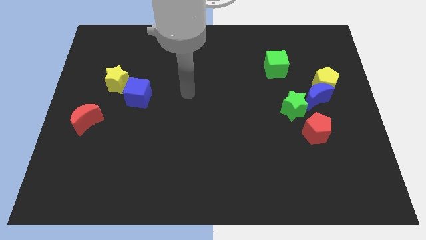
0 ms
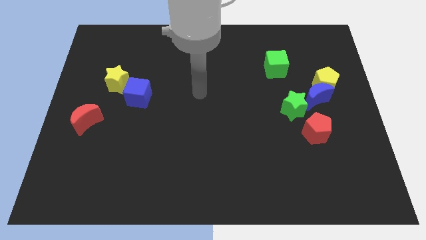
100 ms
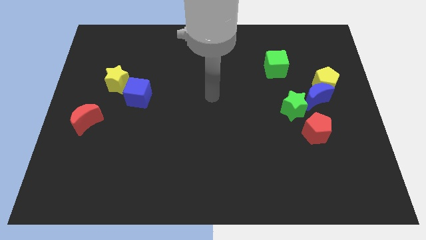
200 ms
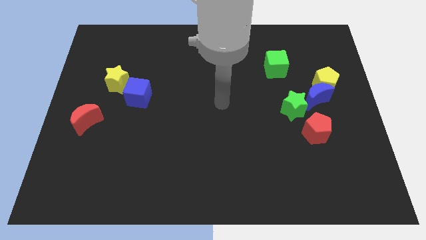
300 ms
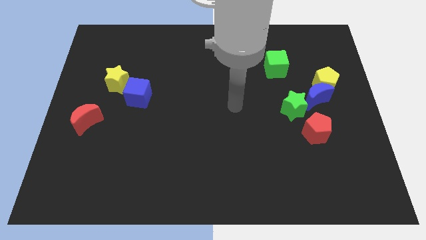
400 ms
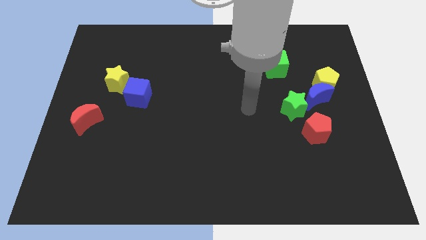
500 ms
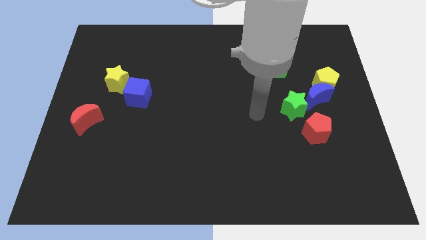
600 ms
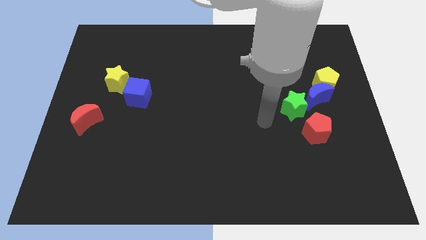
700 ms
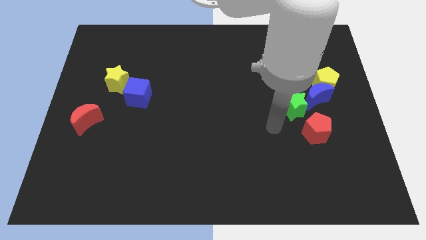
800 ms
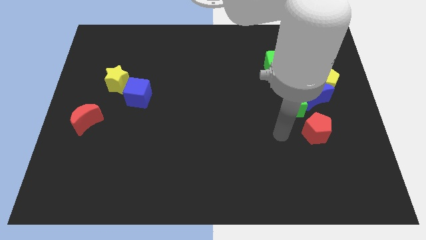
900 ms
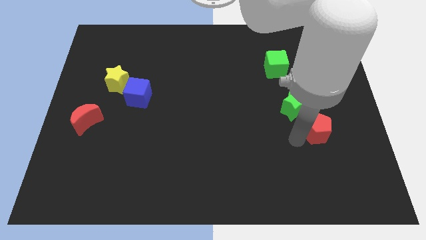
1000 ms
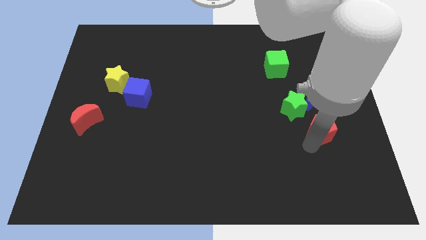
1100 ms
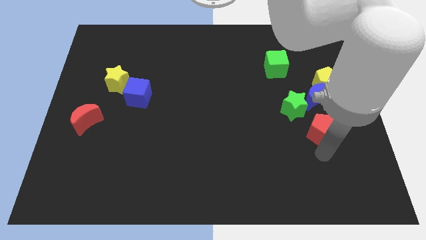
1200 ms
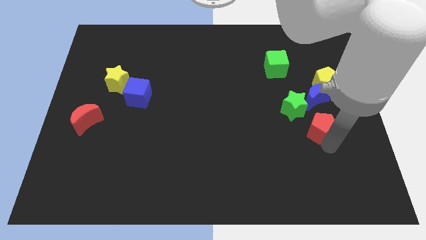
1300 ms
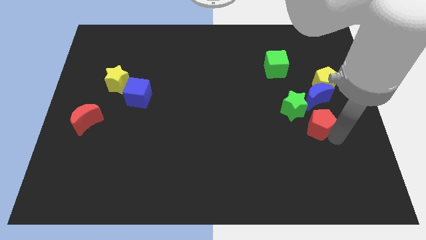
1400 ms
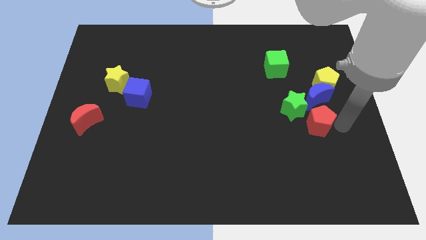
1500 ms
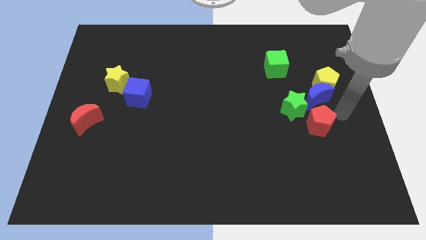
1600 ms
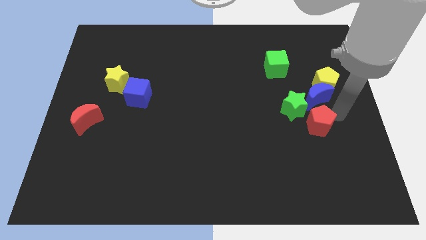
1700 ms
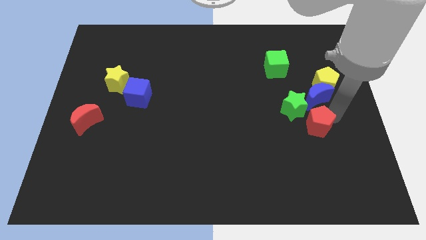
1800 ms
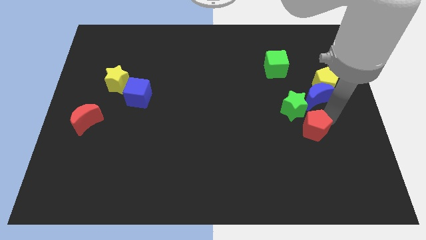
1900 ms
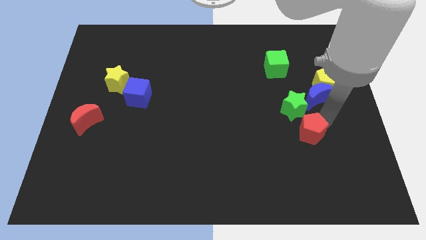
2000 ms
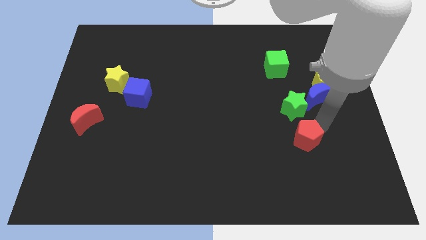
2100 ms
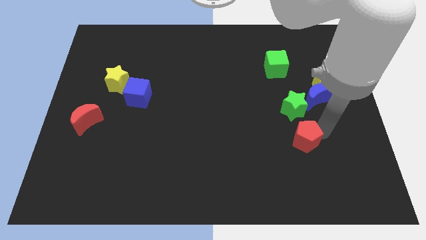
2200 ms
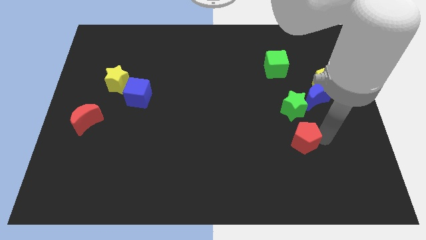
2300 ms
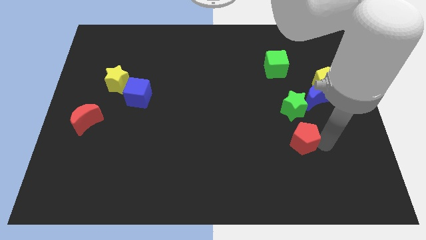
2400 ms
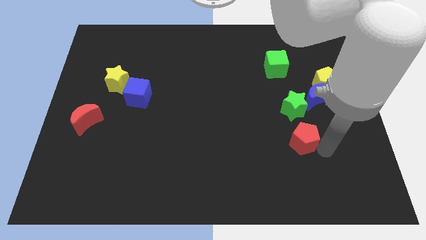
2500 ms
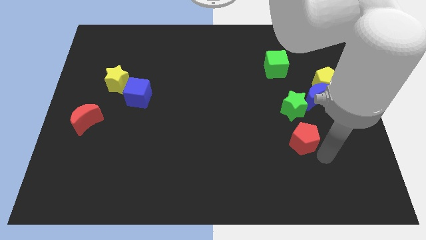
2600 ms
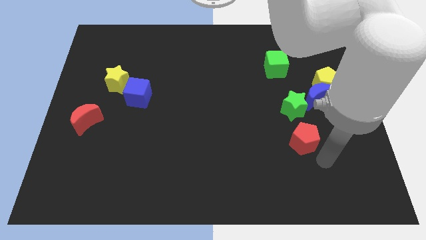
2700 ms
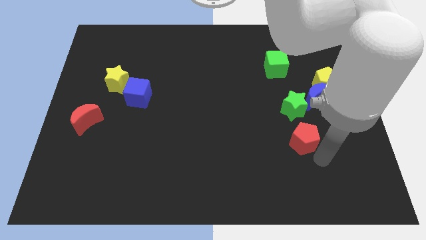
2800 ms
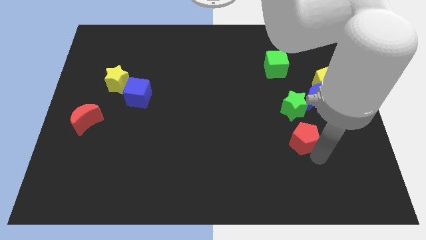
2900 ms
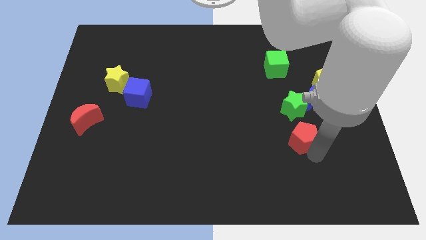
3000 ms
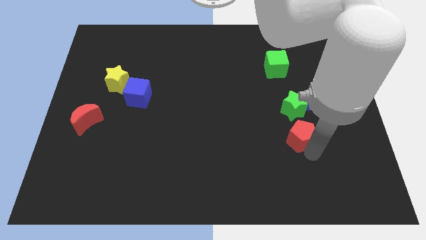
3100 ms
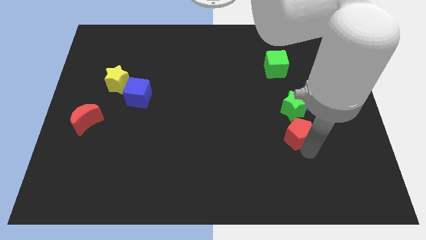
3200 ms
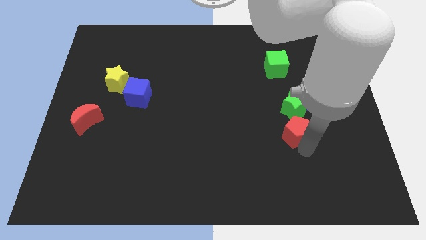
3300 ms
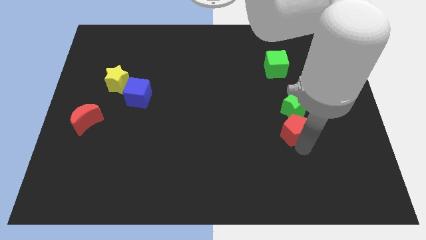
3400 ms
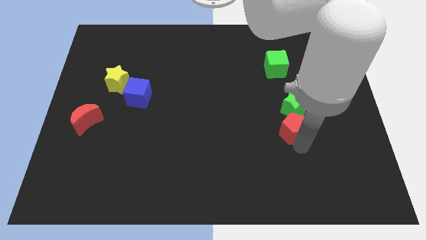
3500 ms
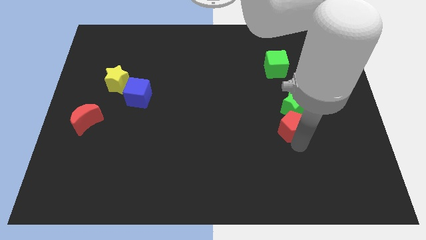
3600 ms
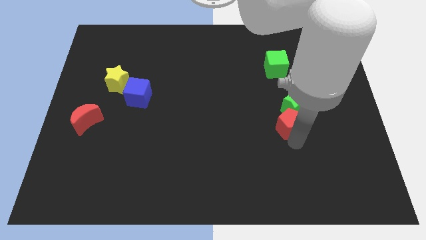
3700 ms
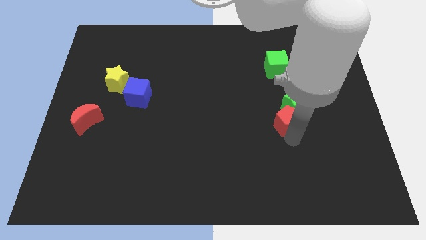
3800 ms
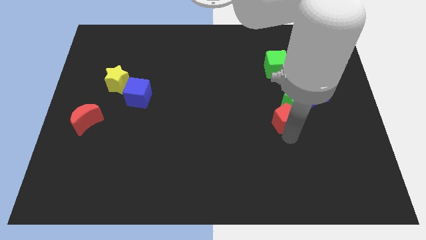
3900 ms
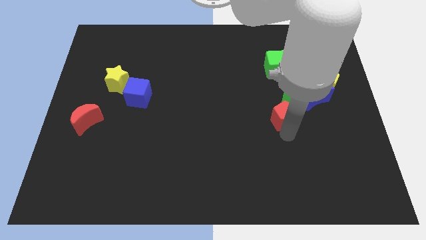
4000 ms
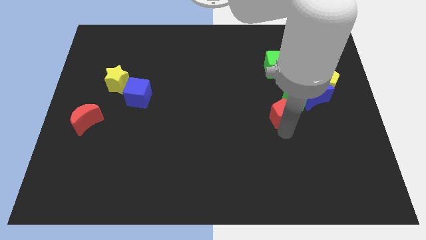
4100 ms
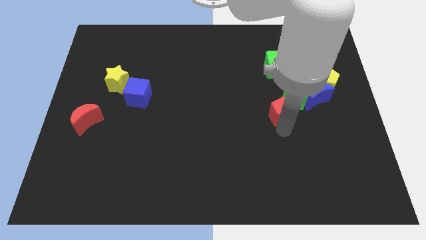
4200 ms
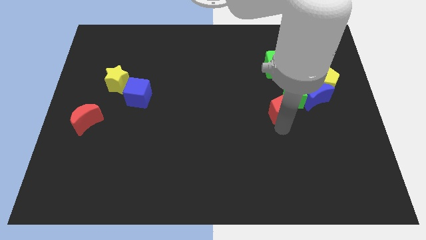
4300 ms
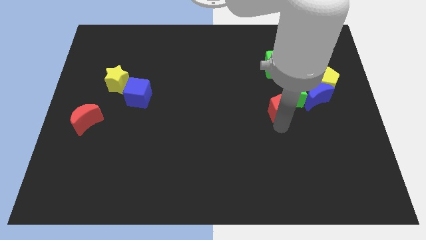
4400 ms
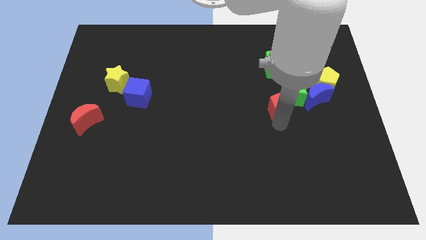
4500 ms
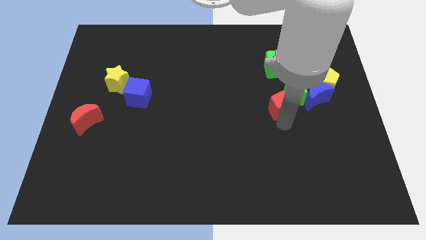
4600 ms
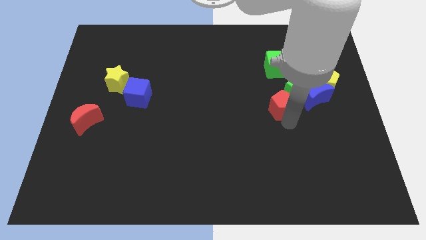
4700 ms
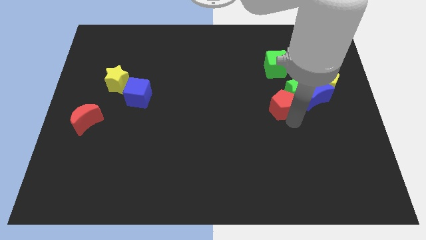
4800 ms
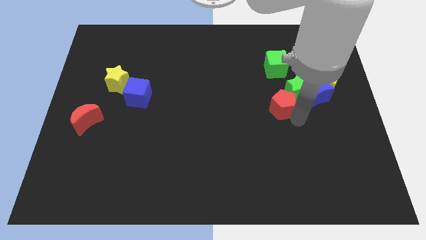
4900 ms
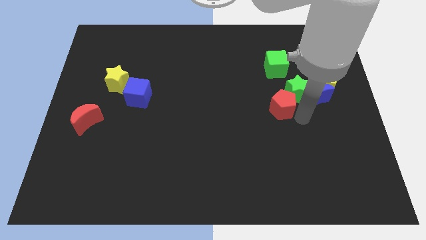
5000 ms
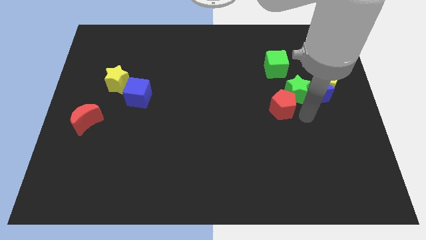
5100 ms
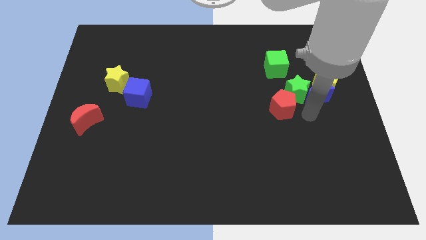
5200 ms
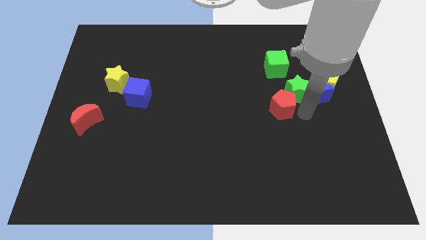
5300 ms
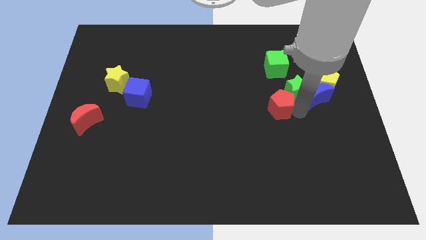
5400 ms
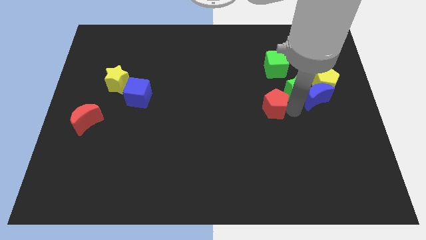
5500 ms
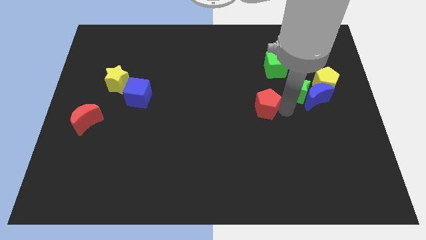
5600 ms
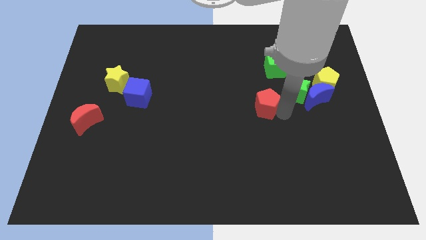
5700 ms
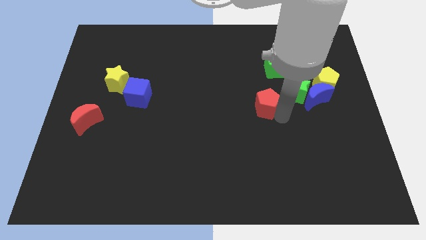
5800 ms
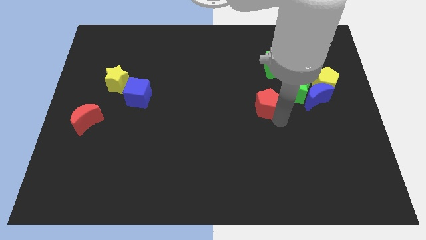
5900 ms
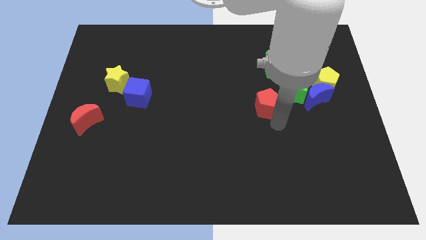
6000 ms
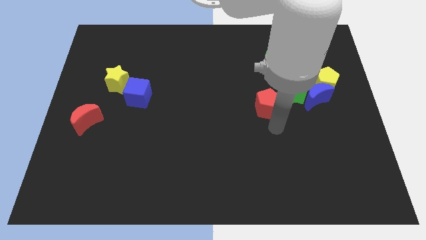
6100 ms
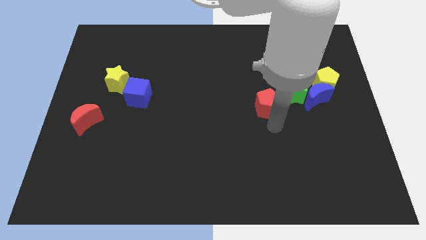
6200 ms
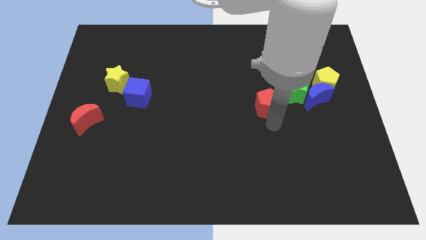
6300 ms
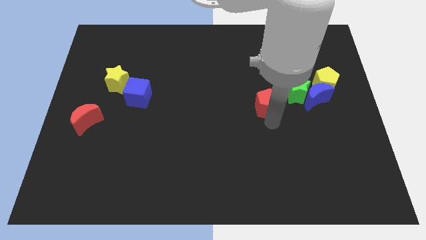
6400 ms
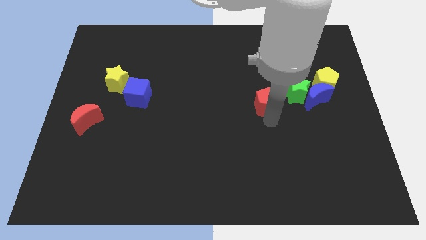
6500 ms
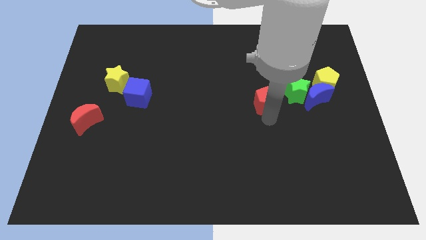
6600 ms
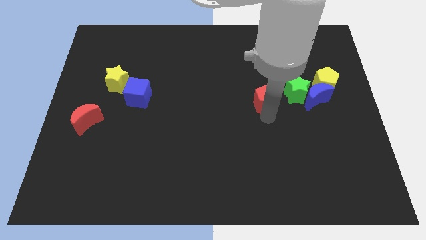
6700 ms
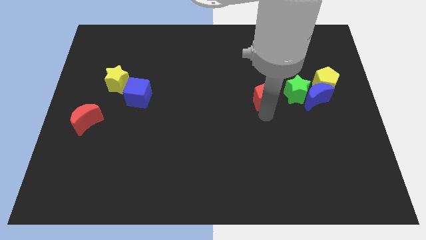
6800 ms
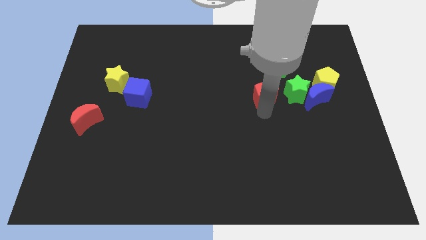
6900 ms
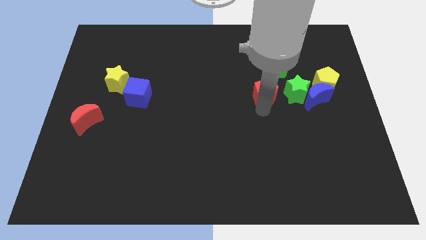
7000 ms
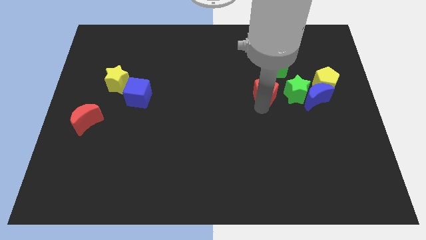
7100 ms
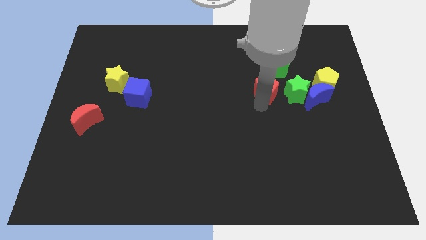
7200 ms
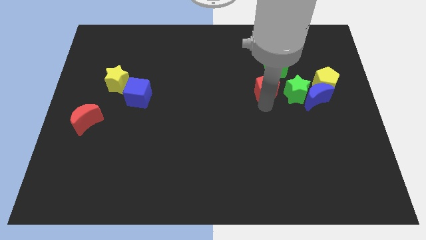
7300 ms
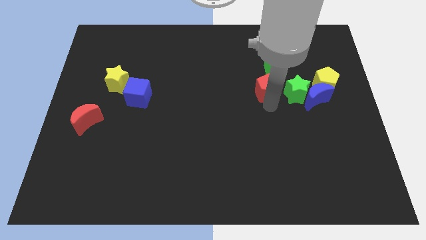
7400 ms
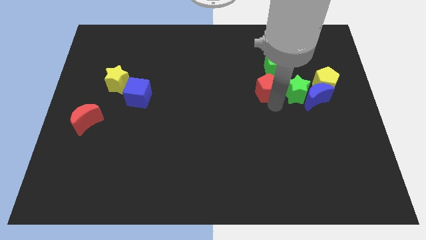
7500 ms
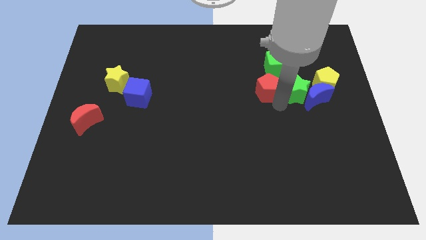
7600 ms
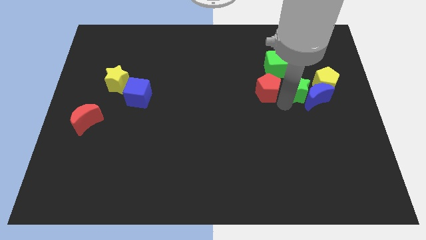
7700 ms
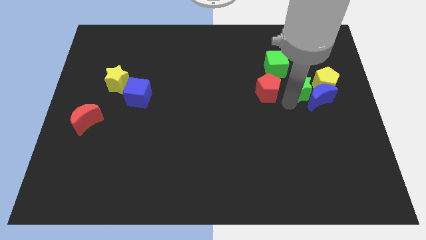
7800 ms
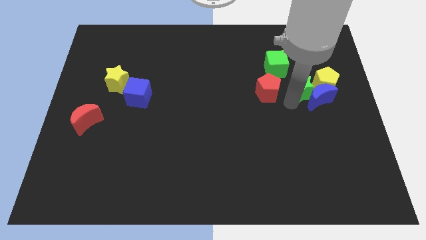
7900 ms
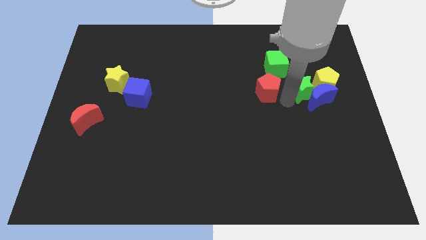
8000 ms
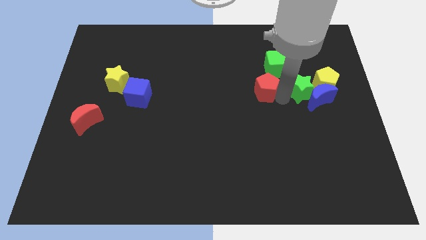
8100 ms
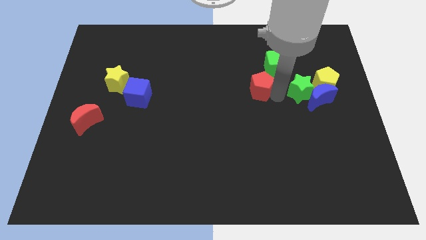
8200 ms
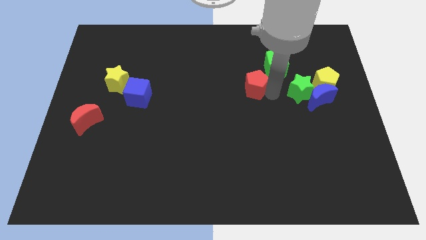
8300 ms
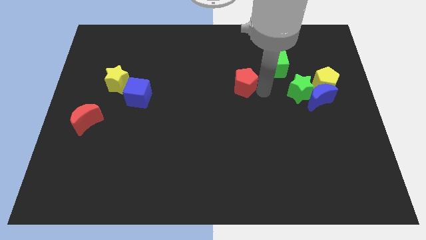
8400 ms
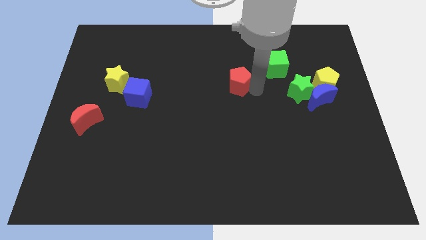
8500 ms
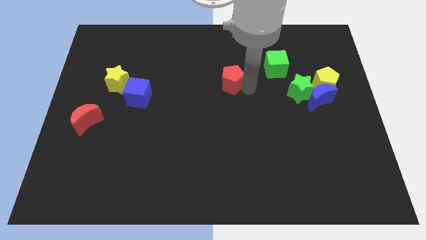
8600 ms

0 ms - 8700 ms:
push the red pentagon just left of the green cube
